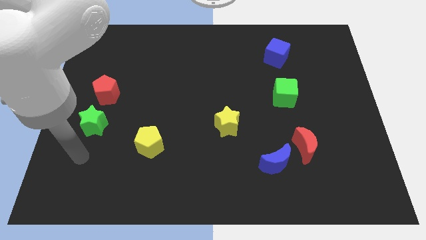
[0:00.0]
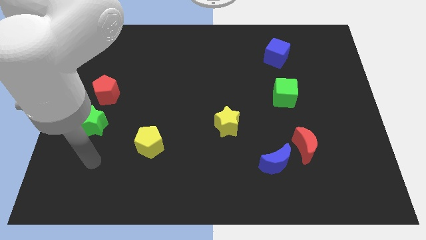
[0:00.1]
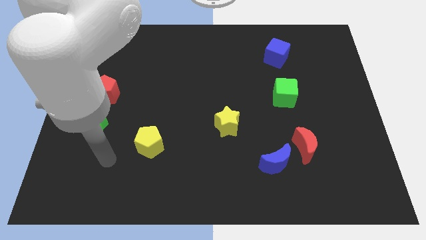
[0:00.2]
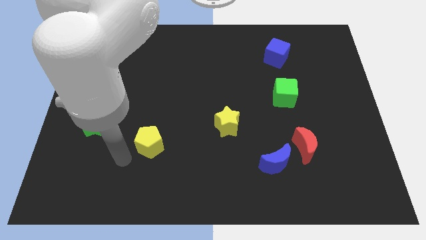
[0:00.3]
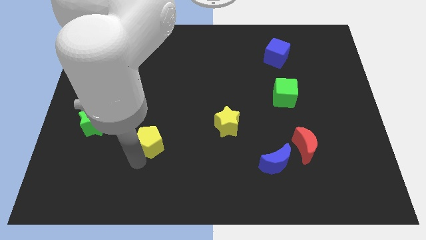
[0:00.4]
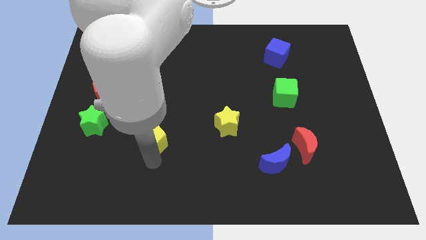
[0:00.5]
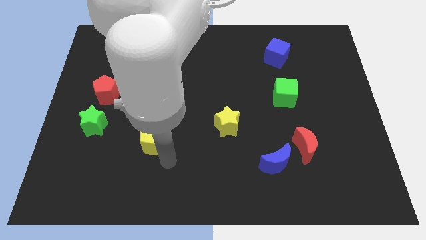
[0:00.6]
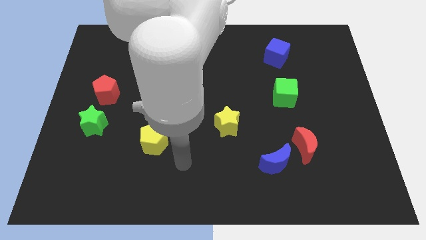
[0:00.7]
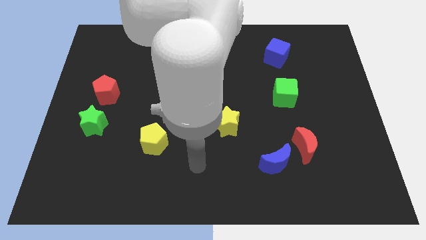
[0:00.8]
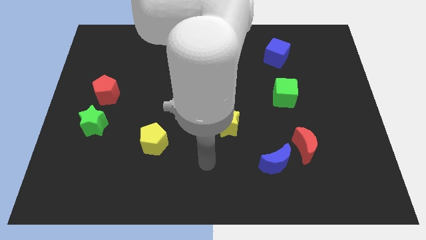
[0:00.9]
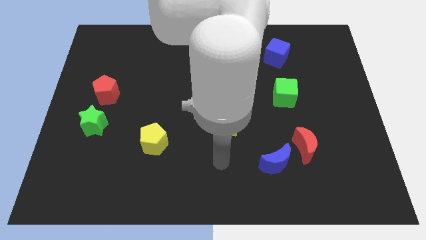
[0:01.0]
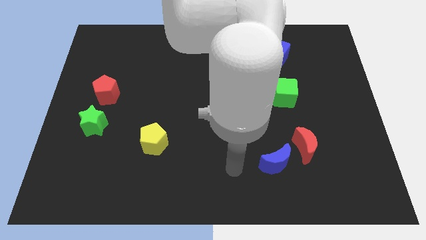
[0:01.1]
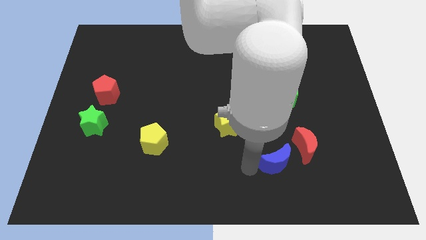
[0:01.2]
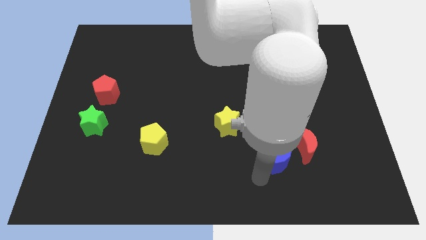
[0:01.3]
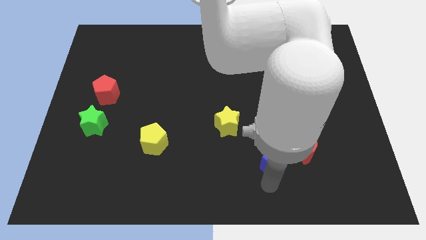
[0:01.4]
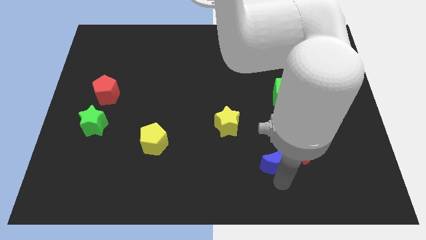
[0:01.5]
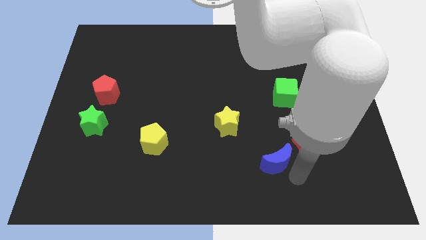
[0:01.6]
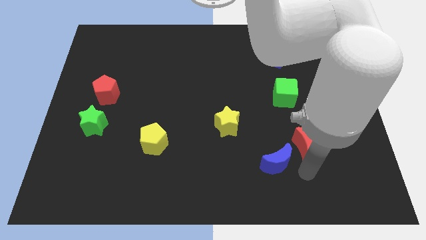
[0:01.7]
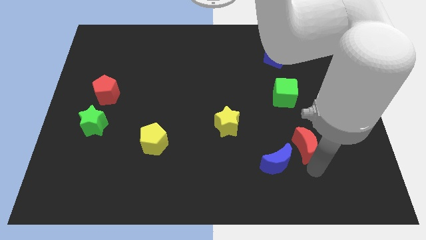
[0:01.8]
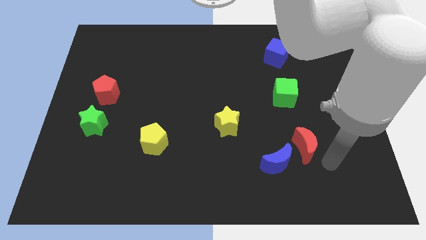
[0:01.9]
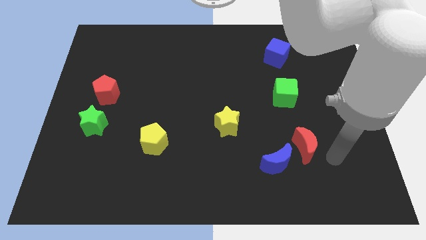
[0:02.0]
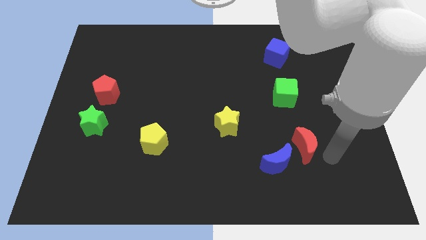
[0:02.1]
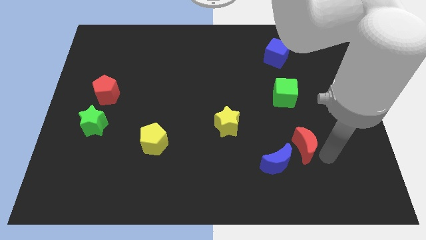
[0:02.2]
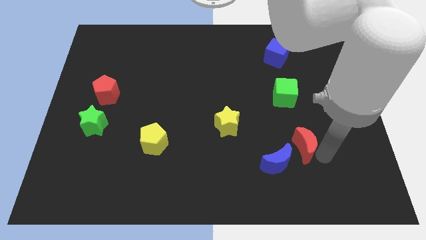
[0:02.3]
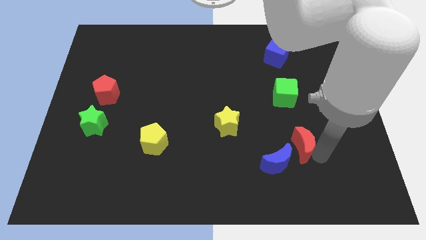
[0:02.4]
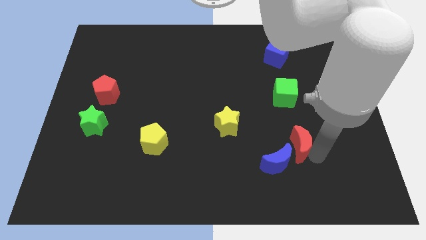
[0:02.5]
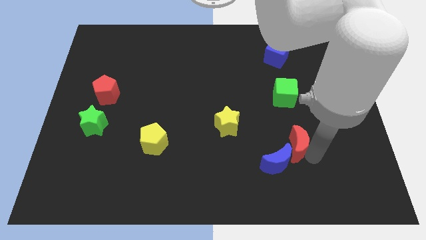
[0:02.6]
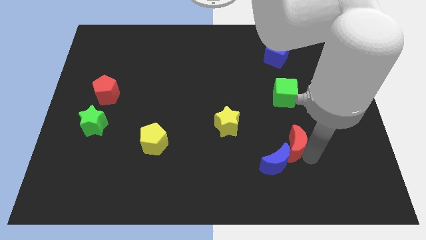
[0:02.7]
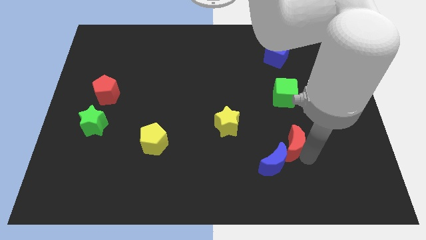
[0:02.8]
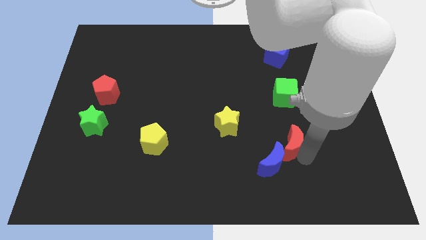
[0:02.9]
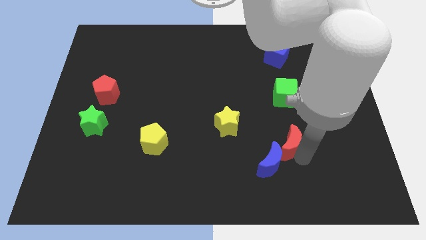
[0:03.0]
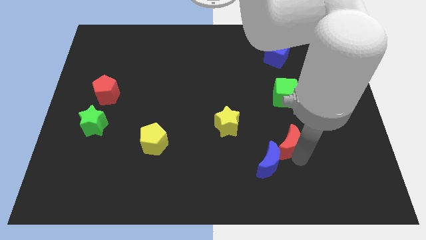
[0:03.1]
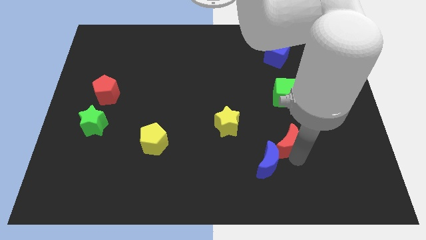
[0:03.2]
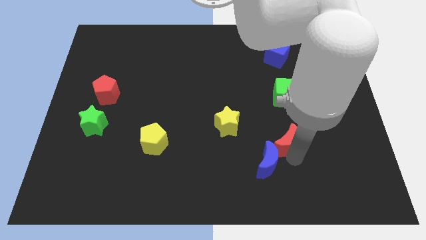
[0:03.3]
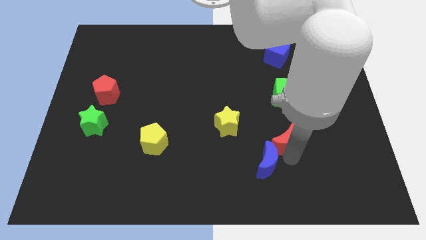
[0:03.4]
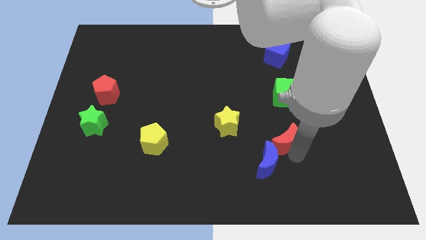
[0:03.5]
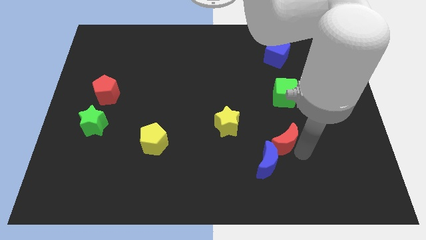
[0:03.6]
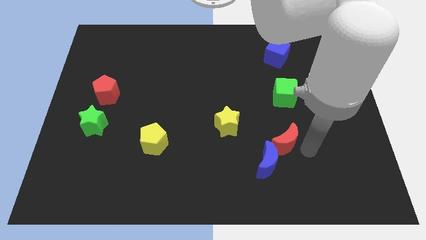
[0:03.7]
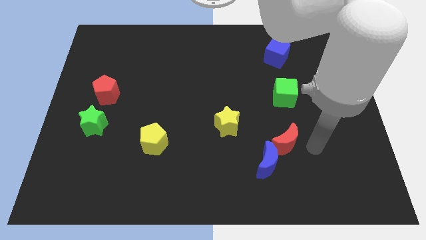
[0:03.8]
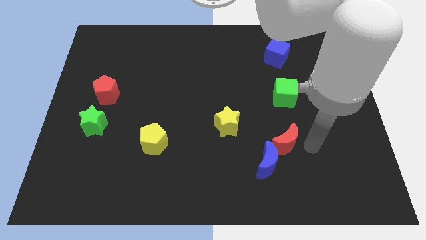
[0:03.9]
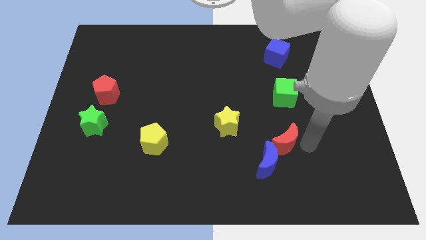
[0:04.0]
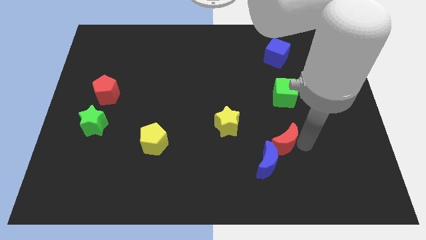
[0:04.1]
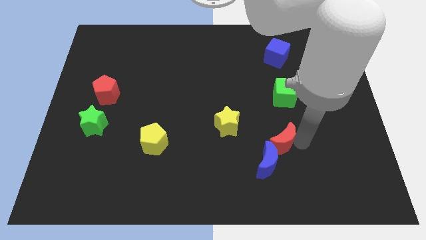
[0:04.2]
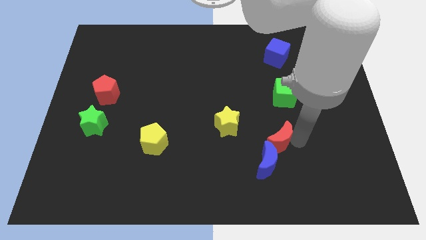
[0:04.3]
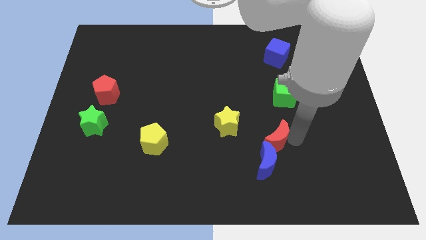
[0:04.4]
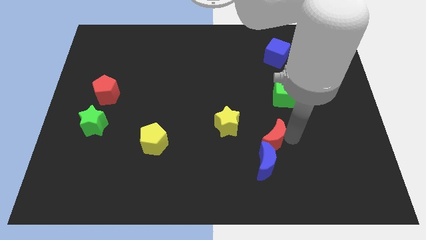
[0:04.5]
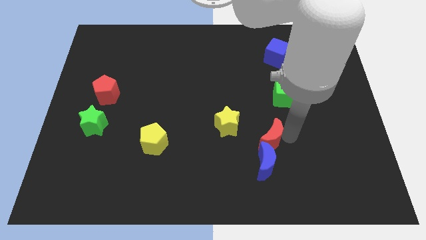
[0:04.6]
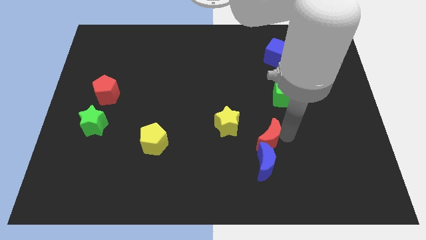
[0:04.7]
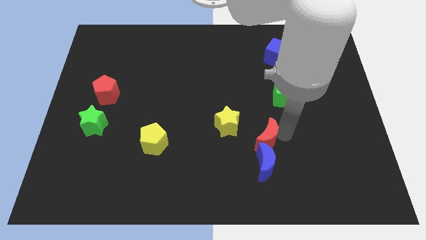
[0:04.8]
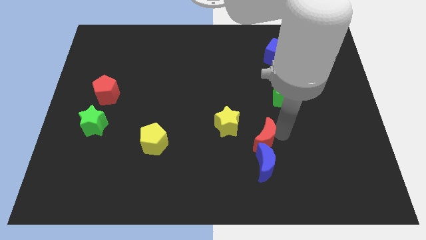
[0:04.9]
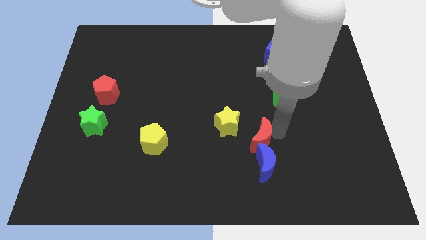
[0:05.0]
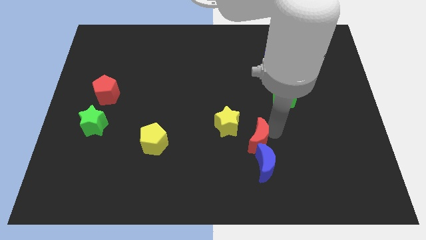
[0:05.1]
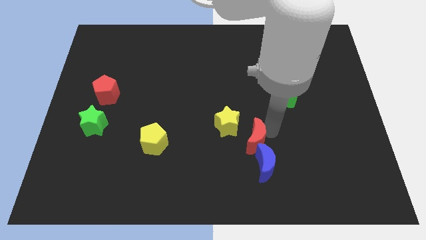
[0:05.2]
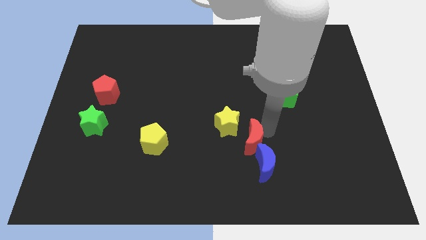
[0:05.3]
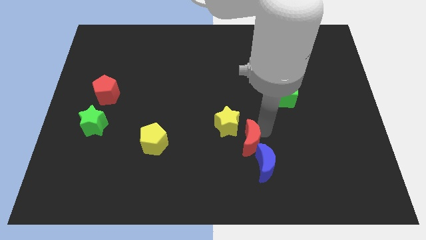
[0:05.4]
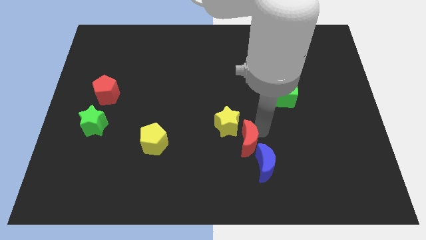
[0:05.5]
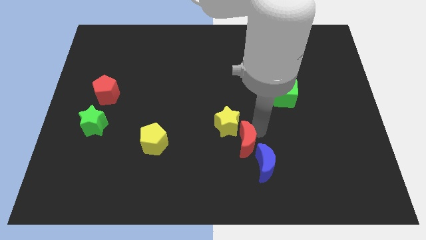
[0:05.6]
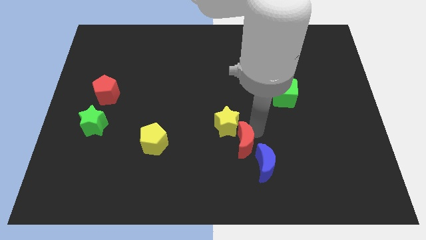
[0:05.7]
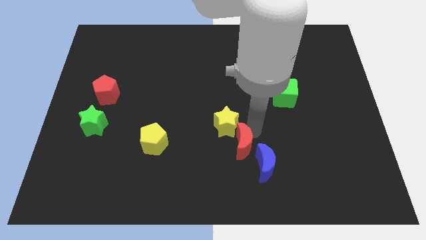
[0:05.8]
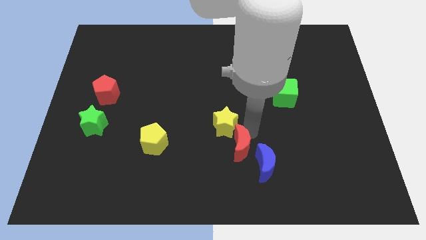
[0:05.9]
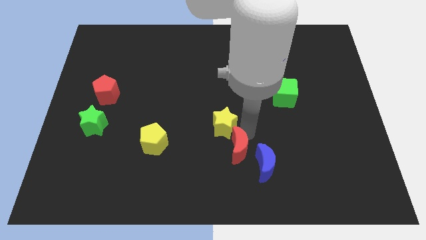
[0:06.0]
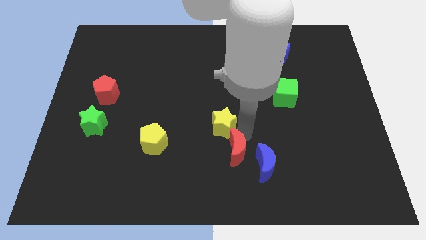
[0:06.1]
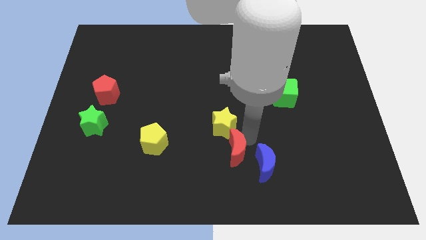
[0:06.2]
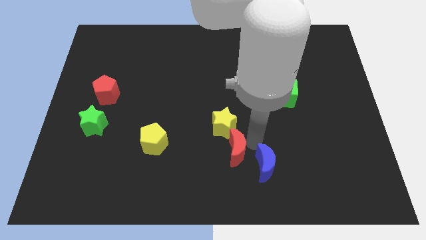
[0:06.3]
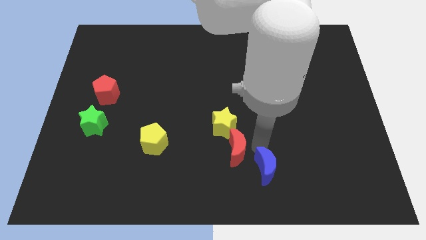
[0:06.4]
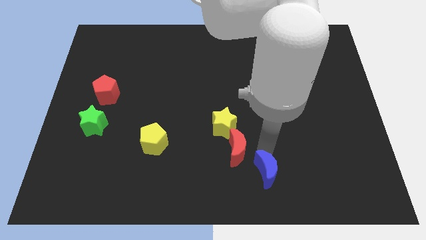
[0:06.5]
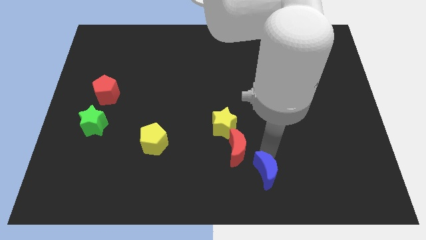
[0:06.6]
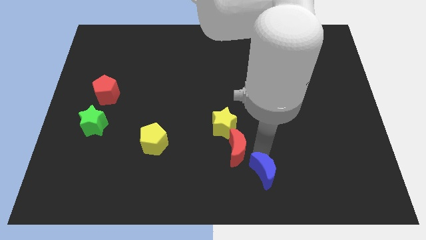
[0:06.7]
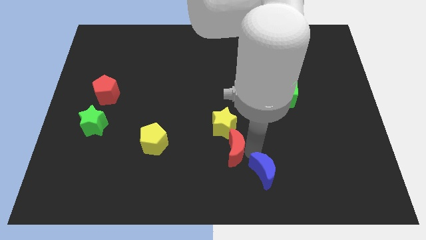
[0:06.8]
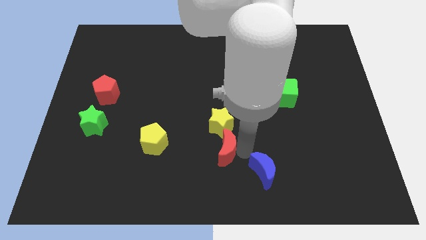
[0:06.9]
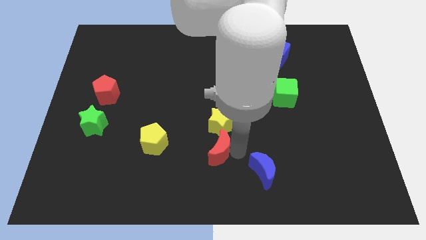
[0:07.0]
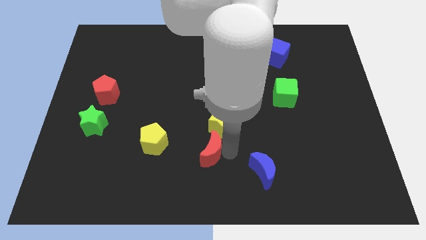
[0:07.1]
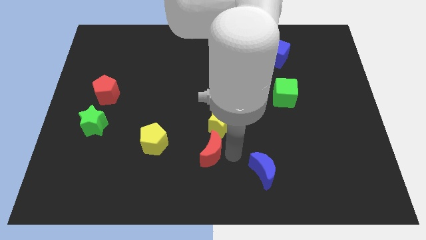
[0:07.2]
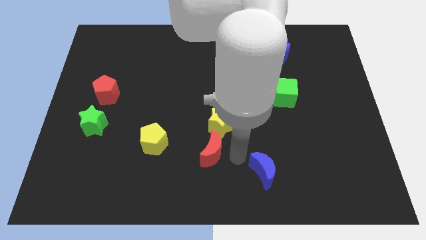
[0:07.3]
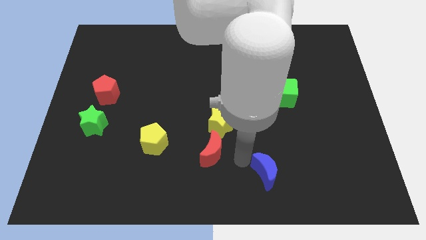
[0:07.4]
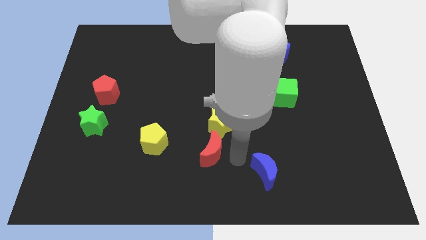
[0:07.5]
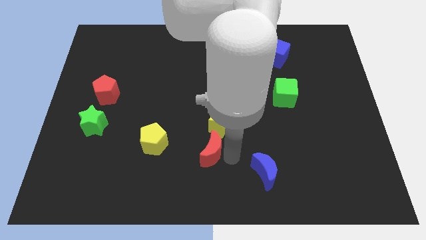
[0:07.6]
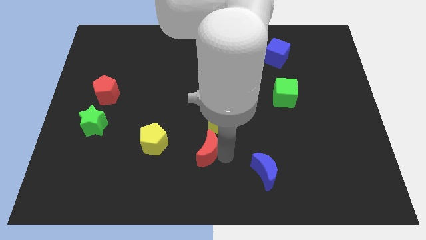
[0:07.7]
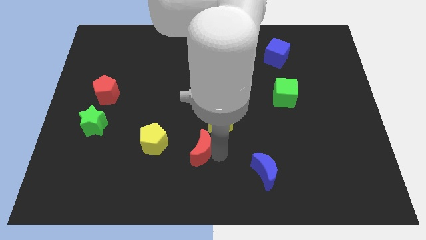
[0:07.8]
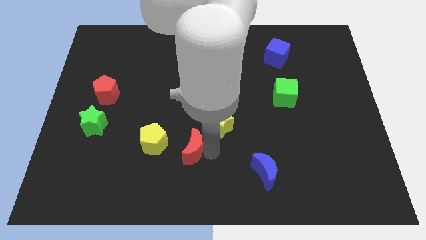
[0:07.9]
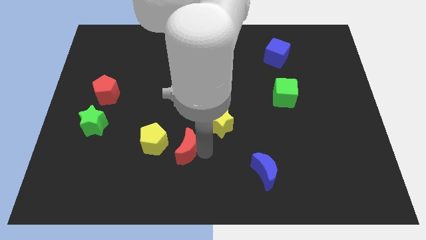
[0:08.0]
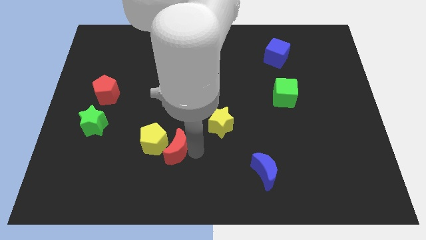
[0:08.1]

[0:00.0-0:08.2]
push the red moon to the yellow pentagon
